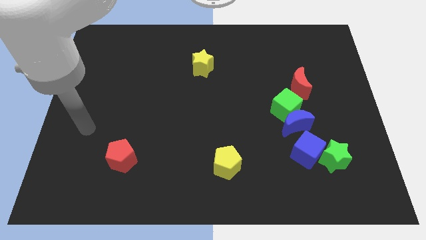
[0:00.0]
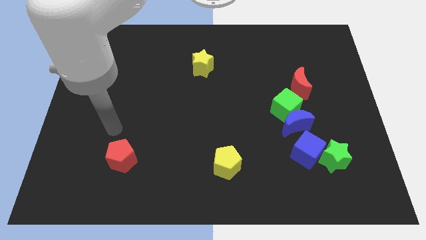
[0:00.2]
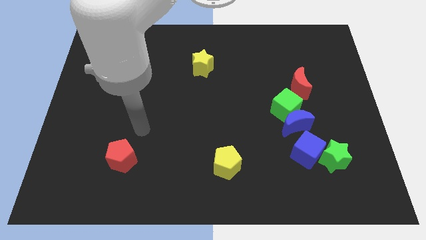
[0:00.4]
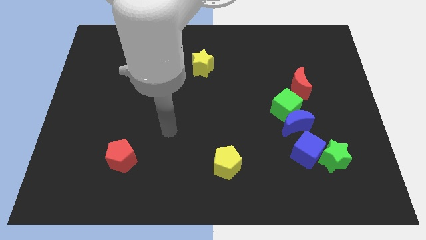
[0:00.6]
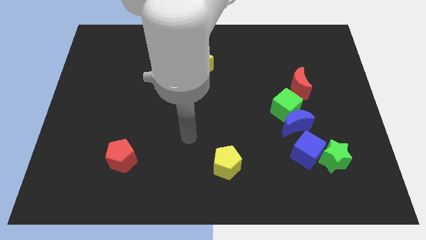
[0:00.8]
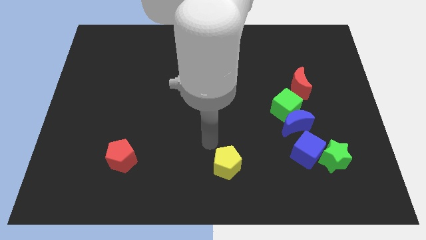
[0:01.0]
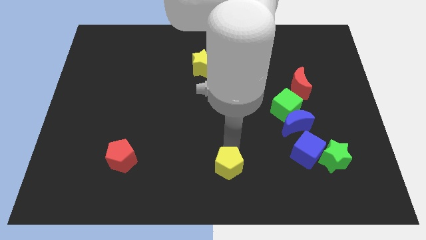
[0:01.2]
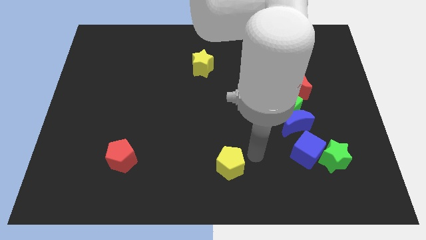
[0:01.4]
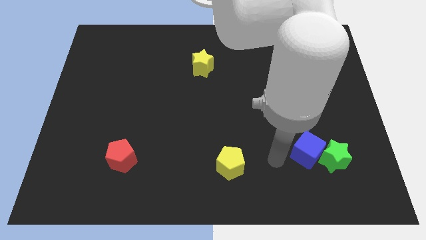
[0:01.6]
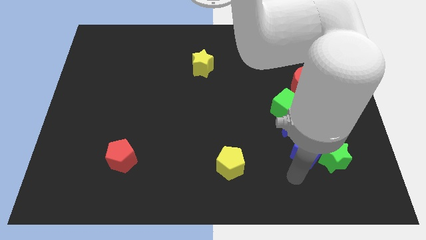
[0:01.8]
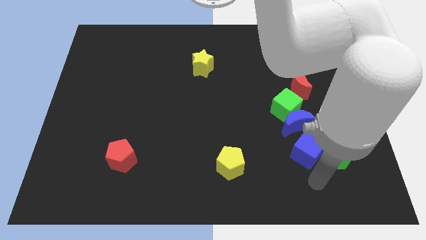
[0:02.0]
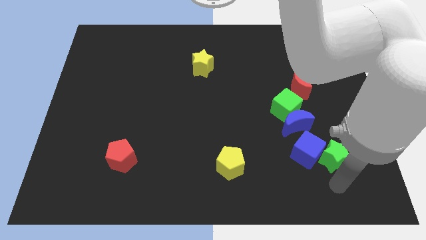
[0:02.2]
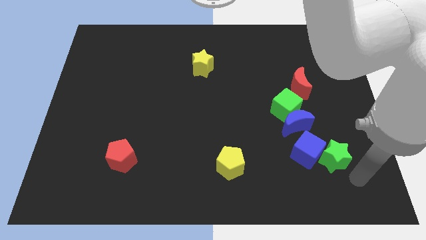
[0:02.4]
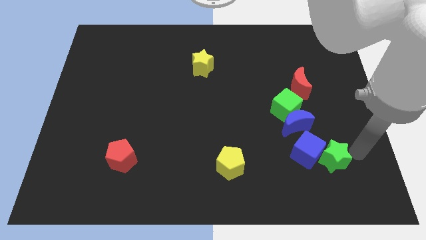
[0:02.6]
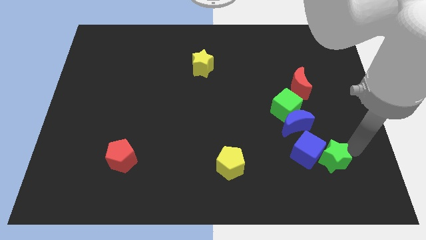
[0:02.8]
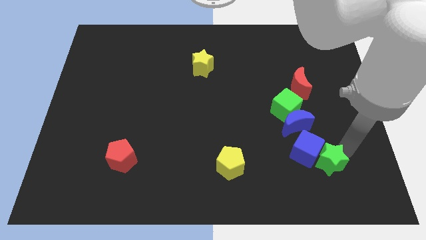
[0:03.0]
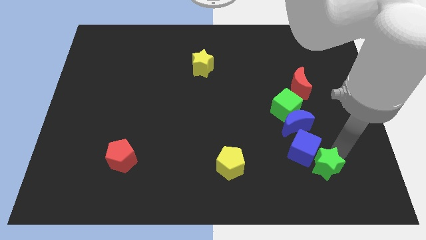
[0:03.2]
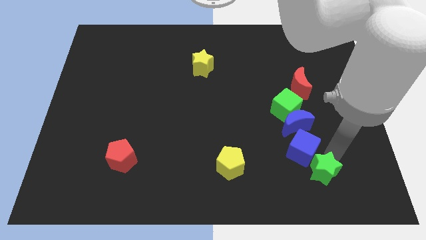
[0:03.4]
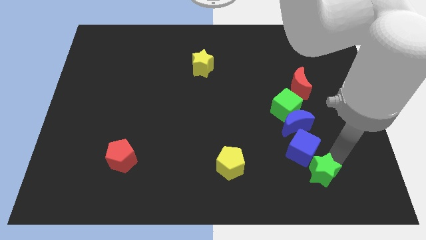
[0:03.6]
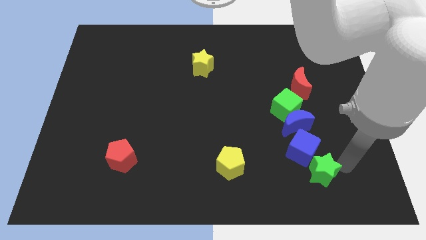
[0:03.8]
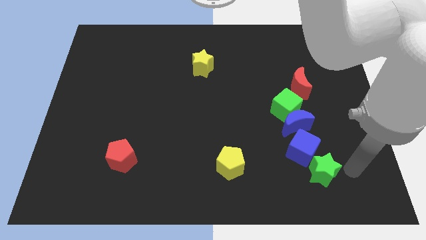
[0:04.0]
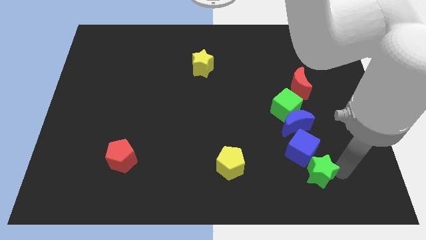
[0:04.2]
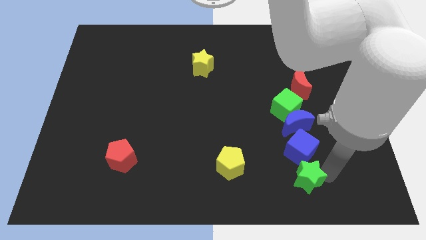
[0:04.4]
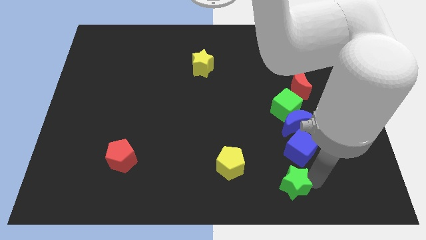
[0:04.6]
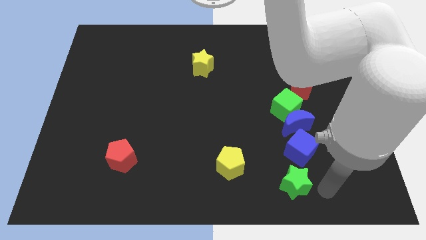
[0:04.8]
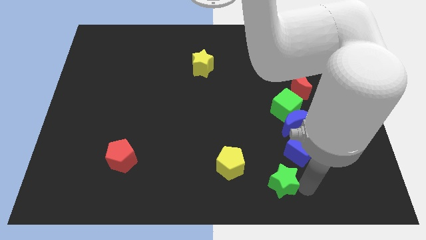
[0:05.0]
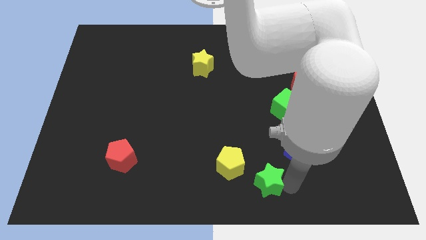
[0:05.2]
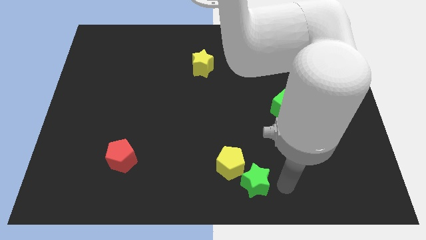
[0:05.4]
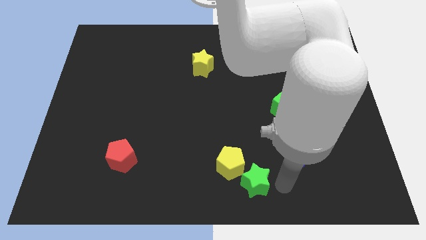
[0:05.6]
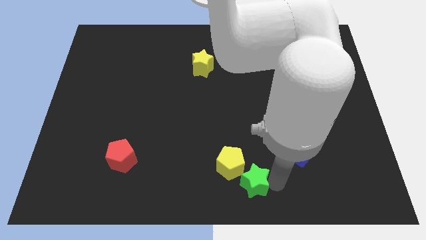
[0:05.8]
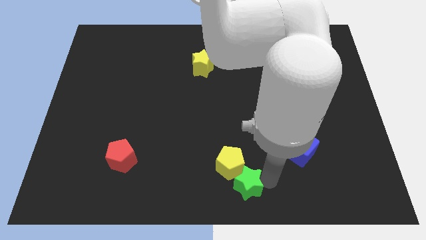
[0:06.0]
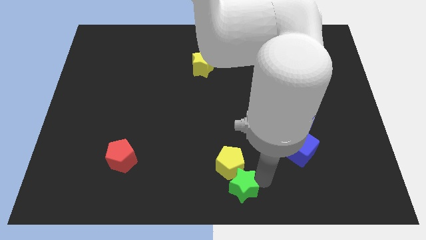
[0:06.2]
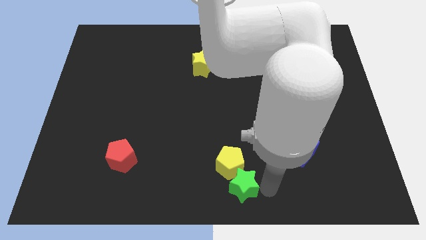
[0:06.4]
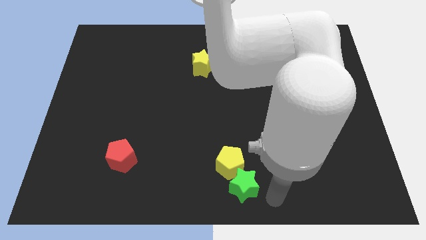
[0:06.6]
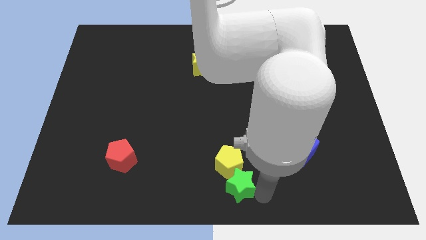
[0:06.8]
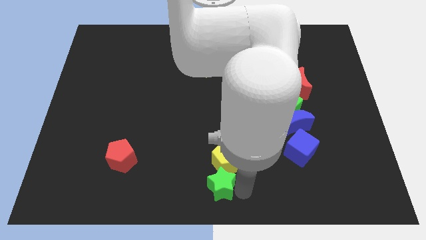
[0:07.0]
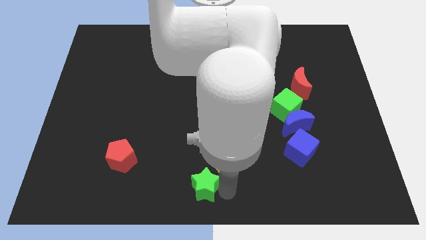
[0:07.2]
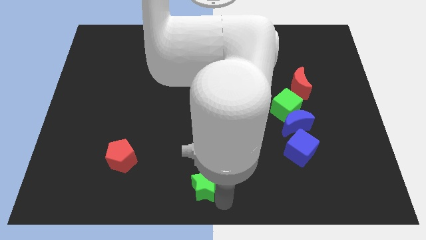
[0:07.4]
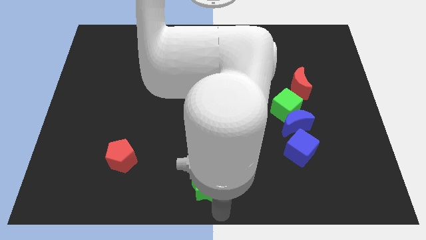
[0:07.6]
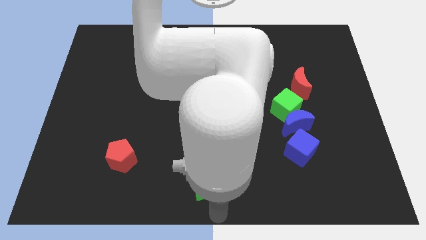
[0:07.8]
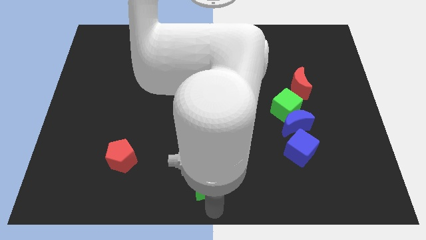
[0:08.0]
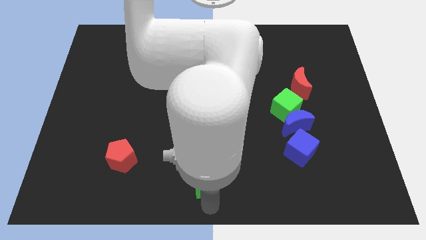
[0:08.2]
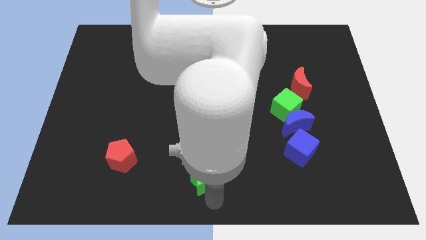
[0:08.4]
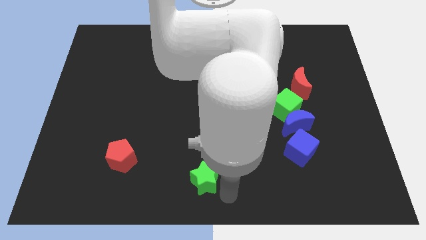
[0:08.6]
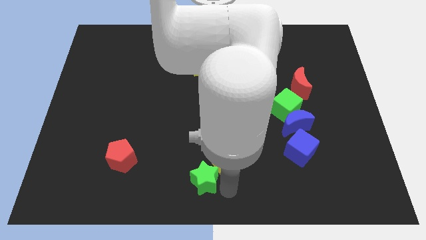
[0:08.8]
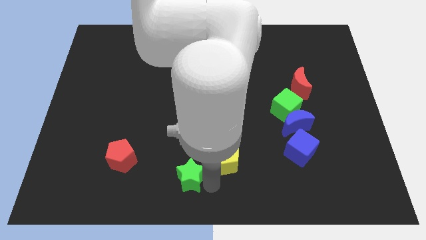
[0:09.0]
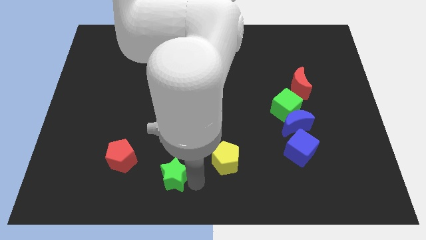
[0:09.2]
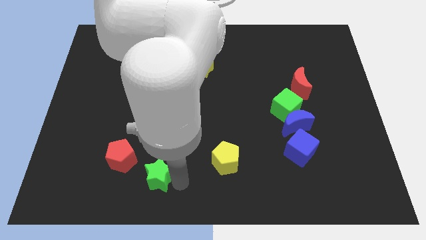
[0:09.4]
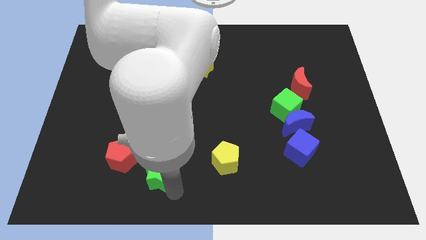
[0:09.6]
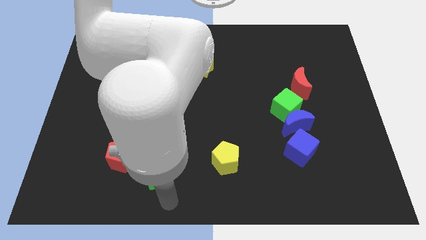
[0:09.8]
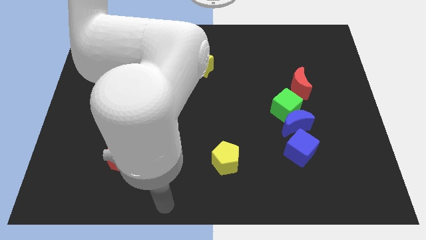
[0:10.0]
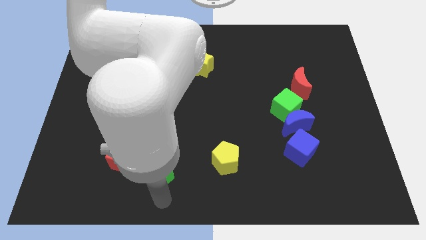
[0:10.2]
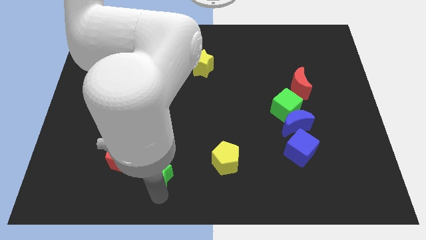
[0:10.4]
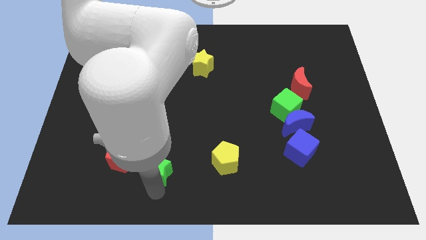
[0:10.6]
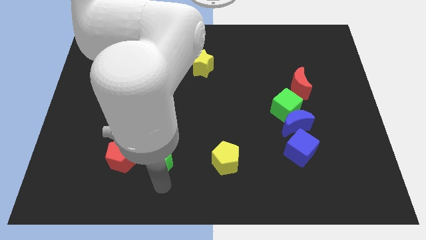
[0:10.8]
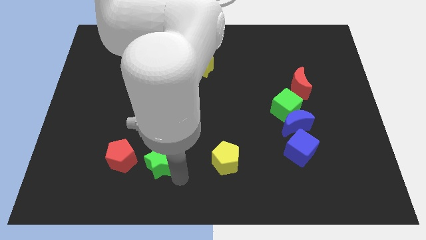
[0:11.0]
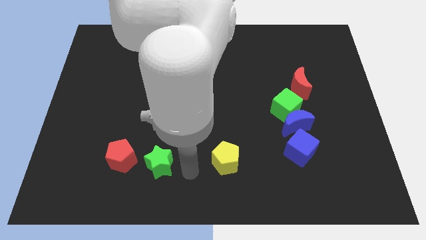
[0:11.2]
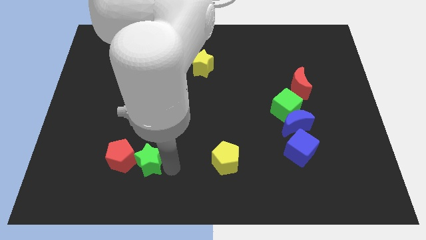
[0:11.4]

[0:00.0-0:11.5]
slide the green star next to the red pentagon
